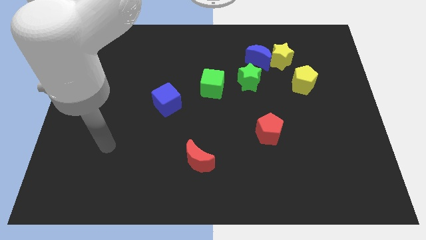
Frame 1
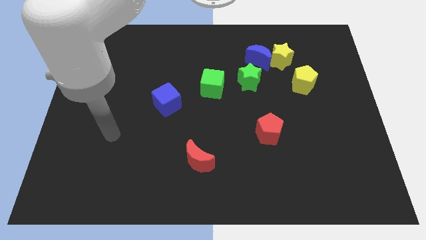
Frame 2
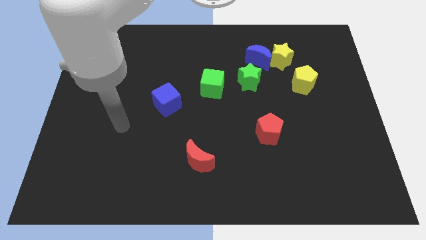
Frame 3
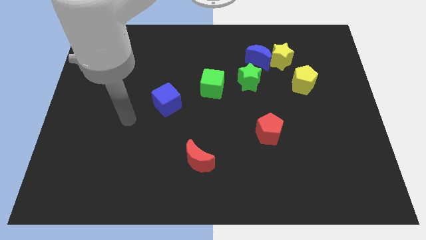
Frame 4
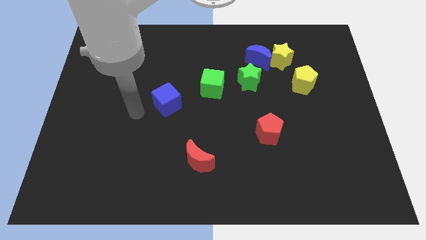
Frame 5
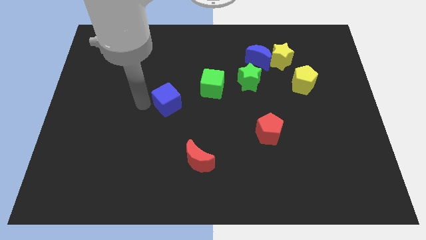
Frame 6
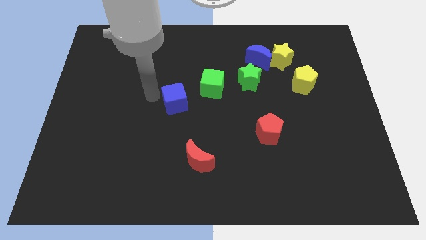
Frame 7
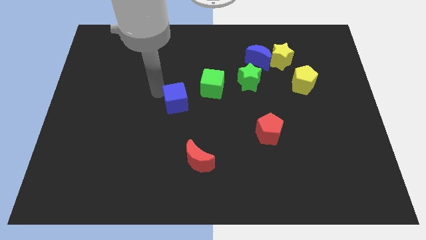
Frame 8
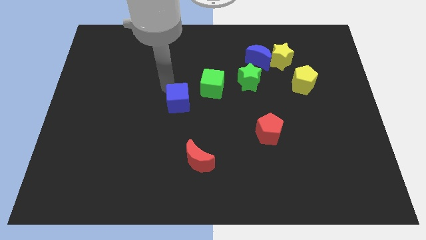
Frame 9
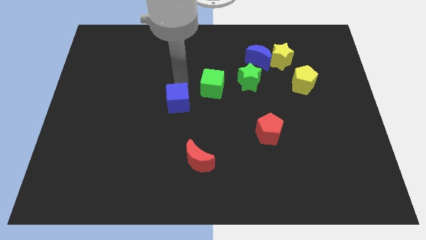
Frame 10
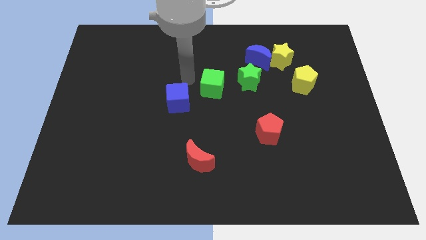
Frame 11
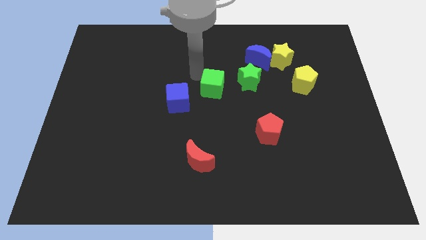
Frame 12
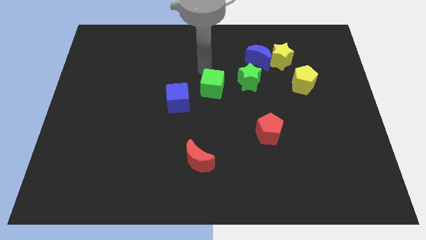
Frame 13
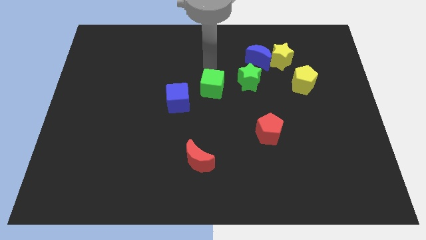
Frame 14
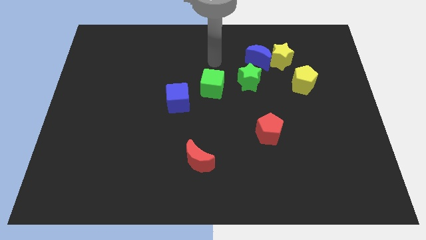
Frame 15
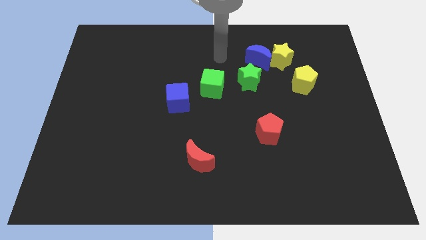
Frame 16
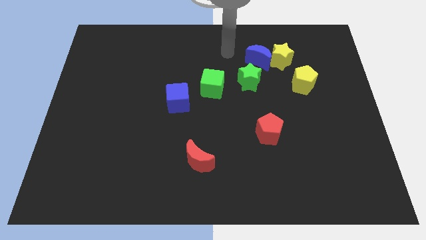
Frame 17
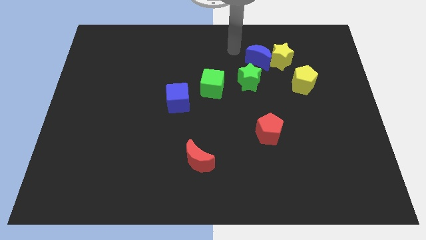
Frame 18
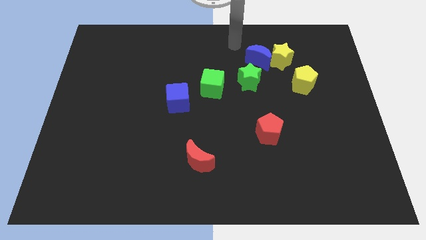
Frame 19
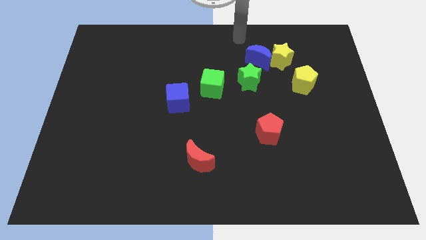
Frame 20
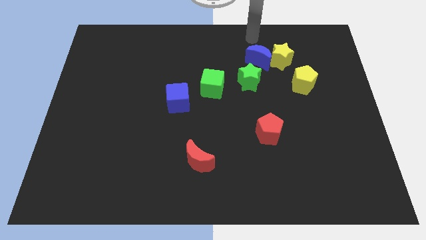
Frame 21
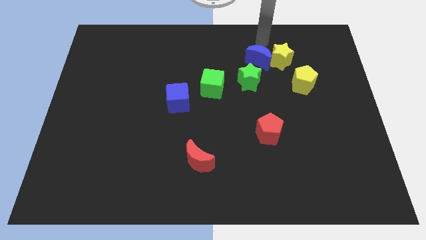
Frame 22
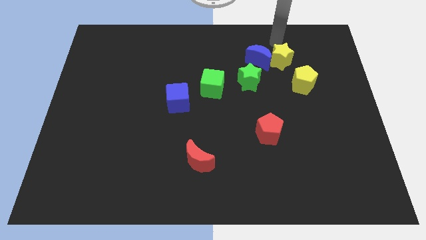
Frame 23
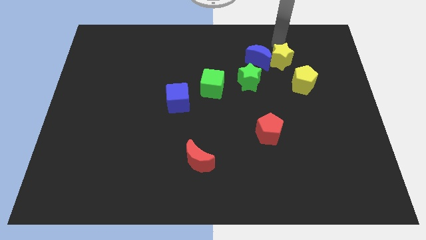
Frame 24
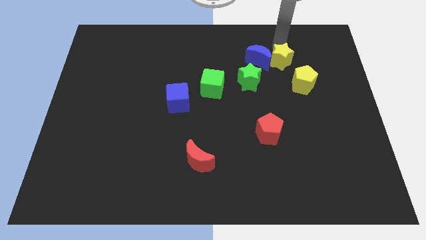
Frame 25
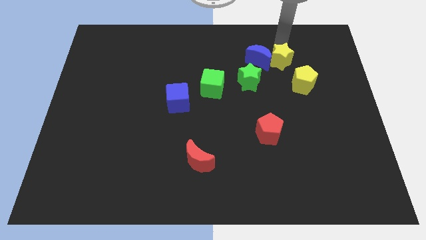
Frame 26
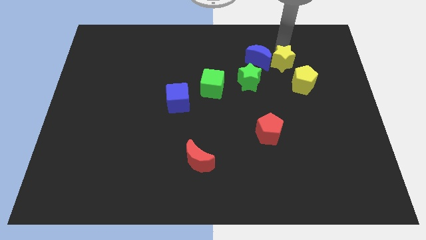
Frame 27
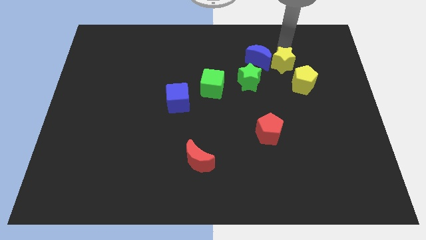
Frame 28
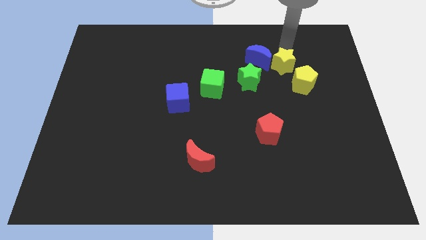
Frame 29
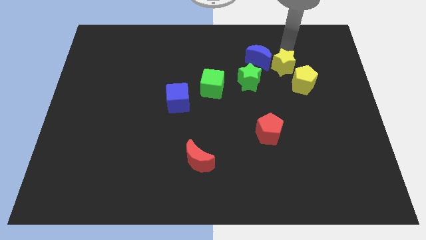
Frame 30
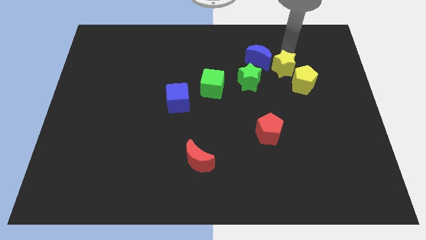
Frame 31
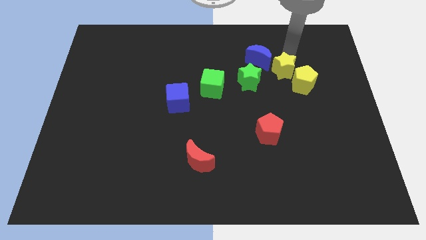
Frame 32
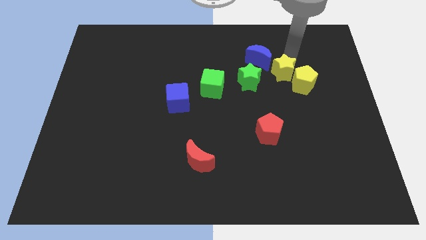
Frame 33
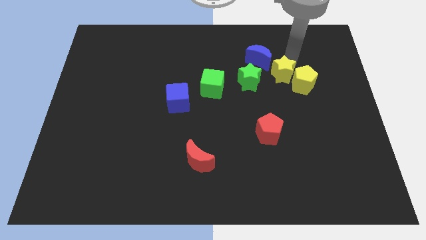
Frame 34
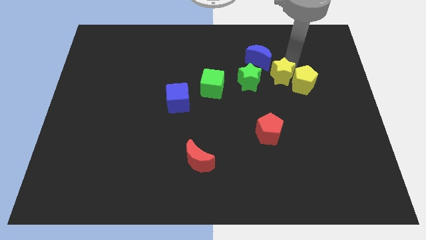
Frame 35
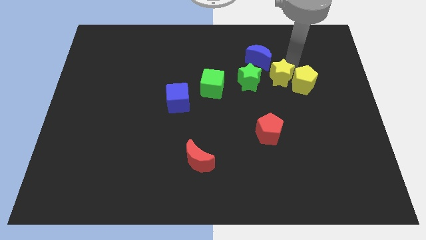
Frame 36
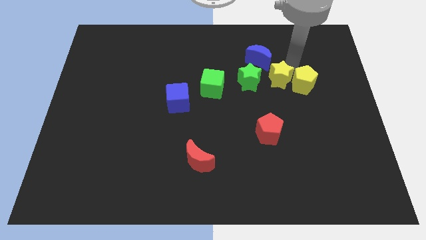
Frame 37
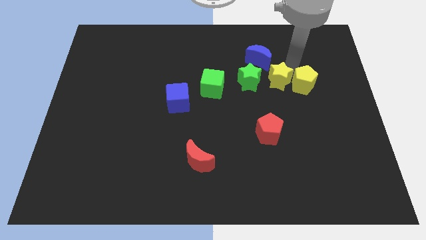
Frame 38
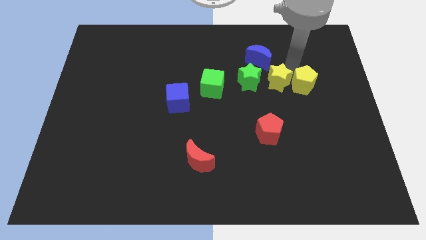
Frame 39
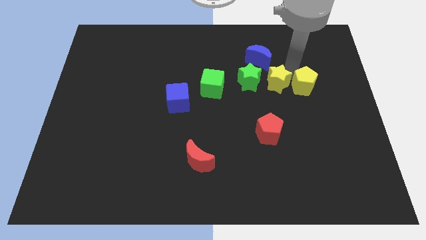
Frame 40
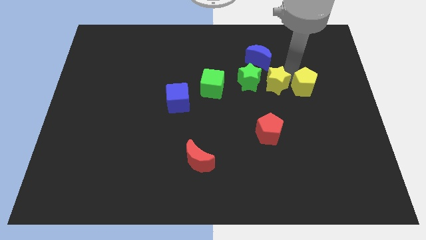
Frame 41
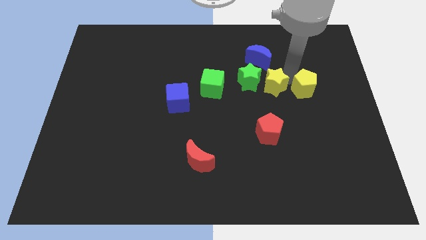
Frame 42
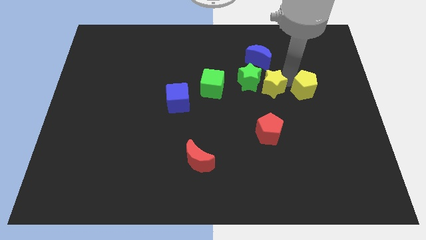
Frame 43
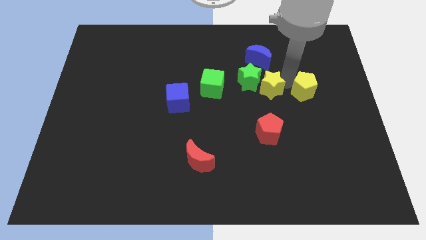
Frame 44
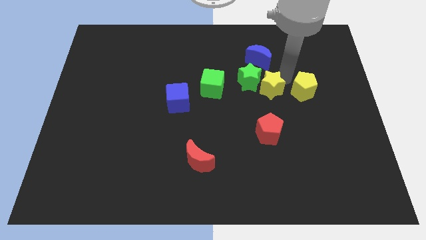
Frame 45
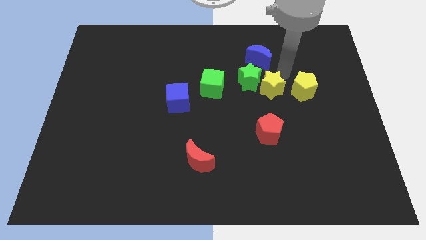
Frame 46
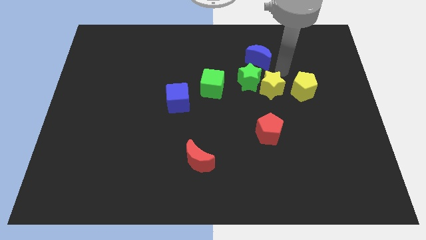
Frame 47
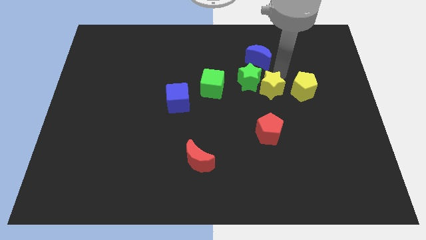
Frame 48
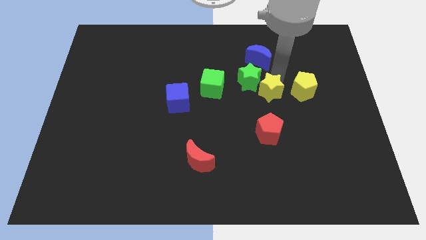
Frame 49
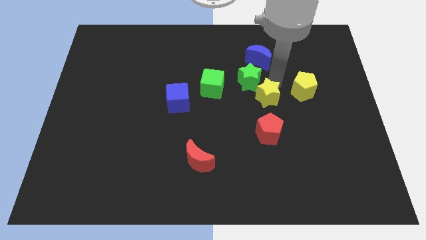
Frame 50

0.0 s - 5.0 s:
put the yellow star to the bottom side of the green star

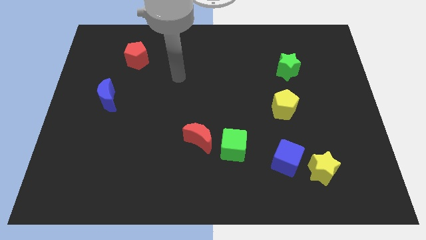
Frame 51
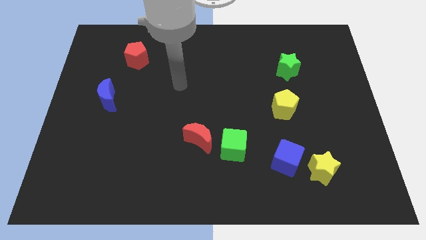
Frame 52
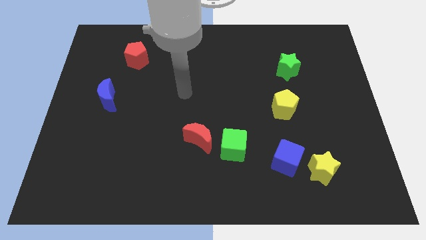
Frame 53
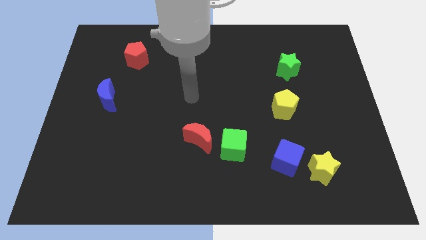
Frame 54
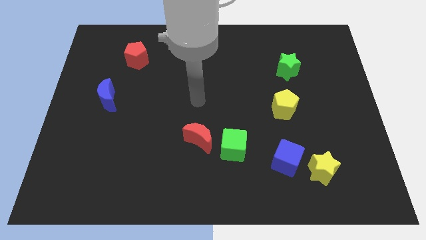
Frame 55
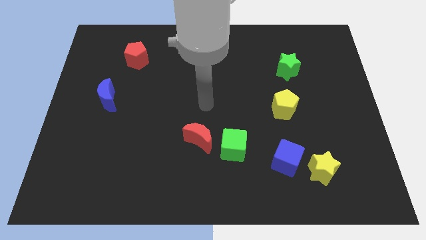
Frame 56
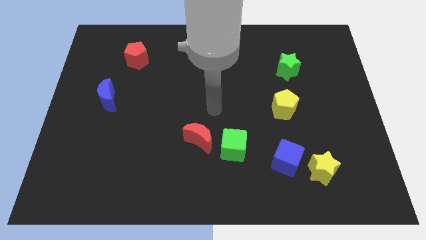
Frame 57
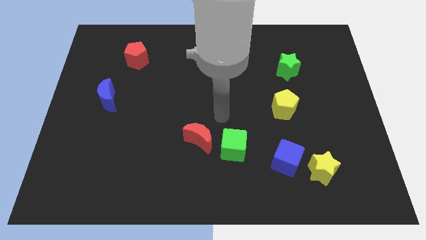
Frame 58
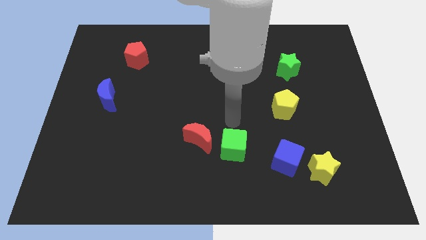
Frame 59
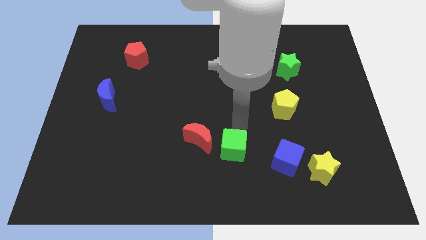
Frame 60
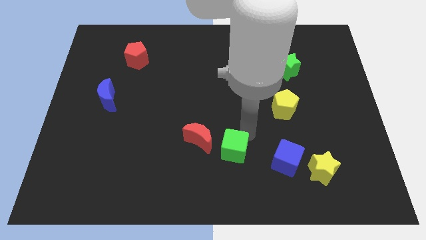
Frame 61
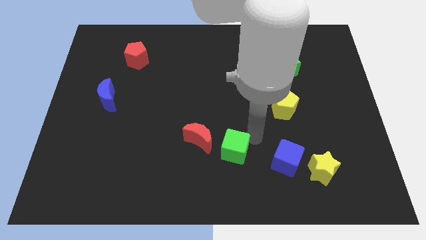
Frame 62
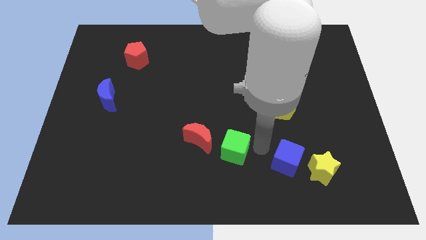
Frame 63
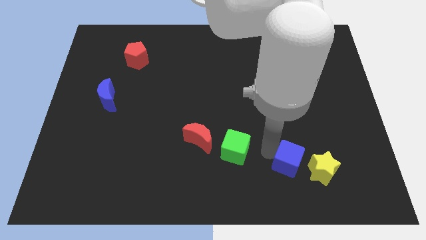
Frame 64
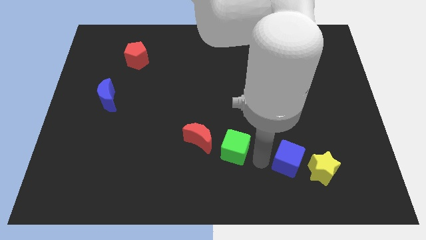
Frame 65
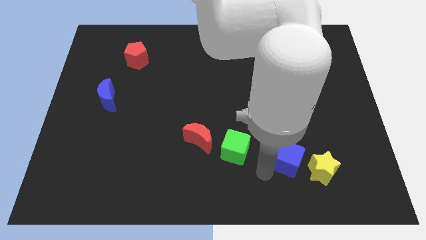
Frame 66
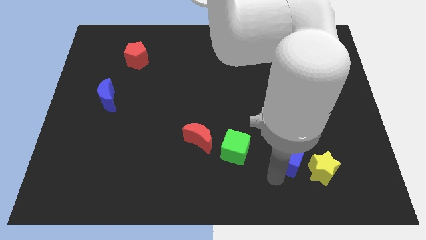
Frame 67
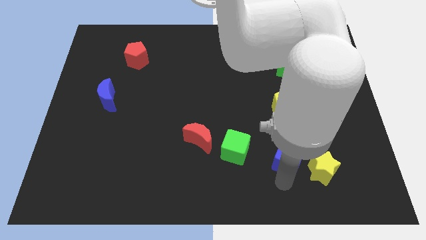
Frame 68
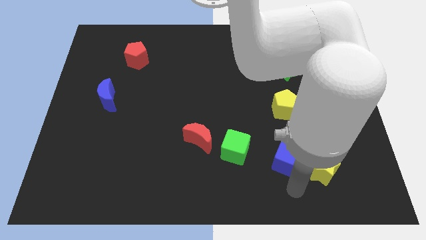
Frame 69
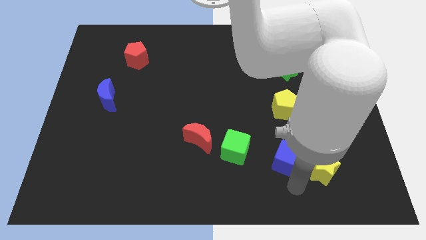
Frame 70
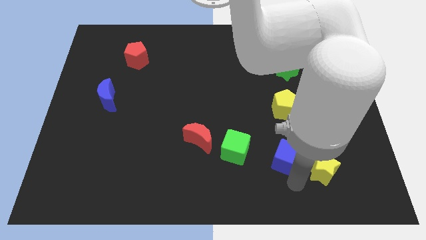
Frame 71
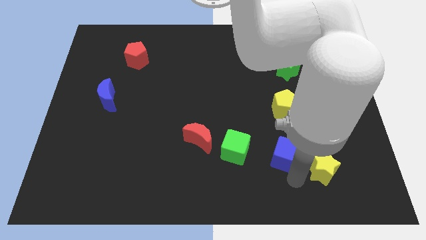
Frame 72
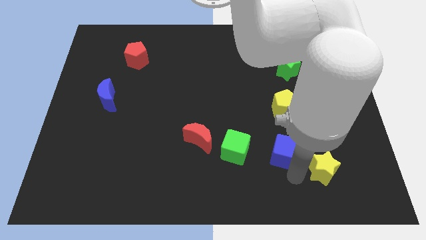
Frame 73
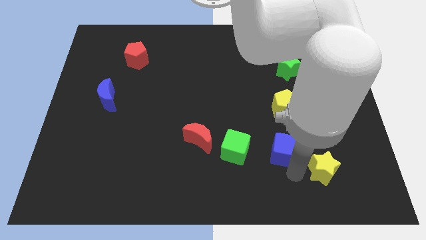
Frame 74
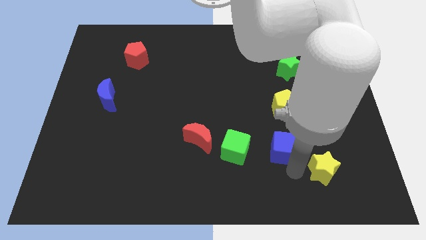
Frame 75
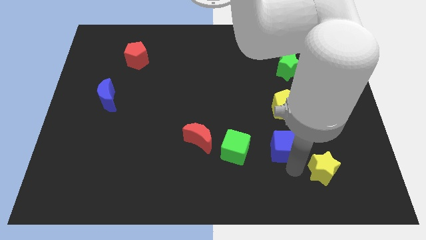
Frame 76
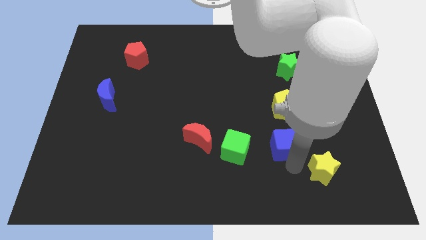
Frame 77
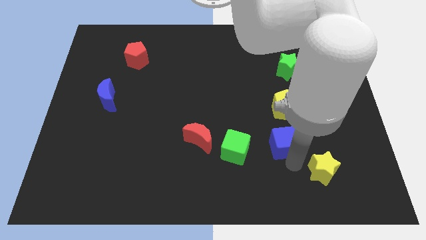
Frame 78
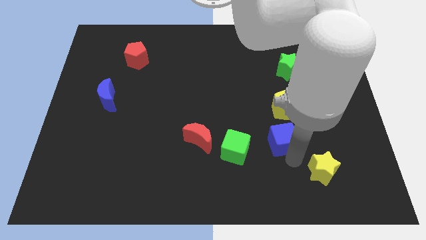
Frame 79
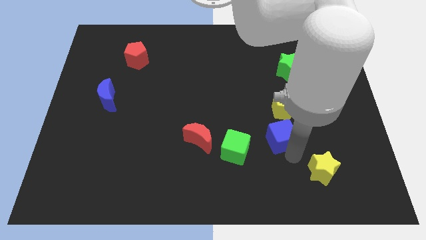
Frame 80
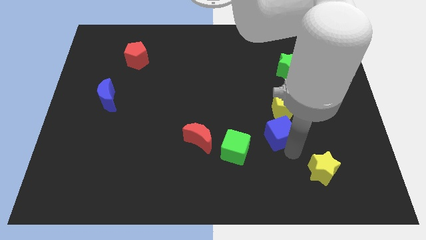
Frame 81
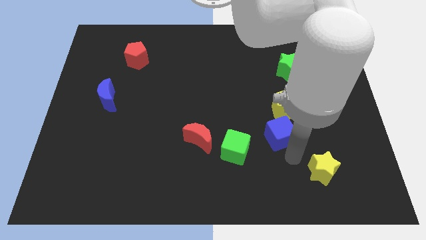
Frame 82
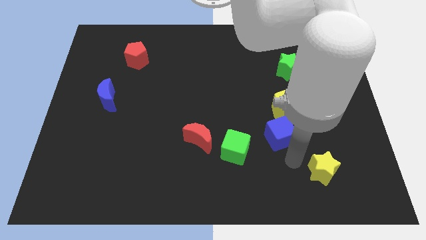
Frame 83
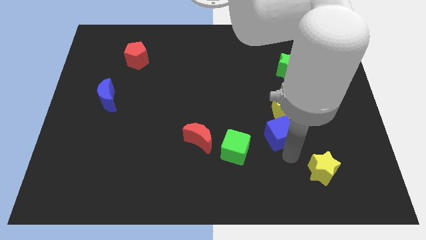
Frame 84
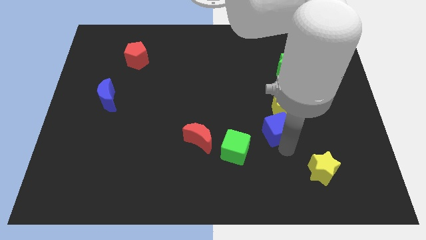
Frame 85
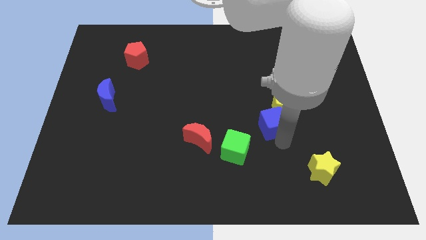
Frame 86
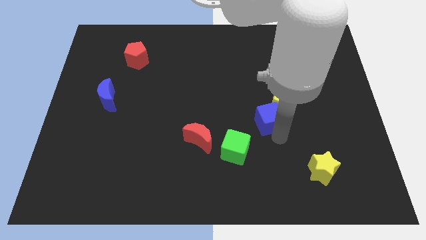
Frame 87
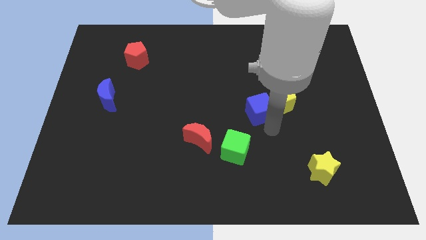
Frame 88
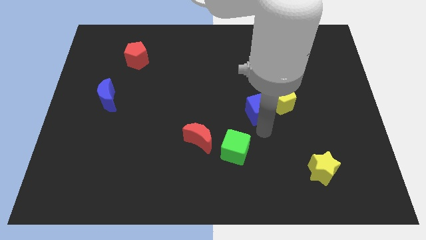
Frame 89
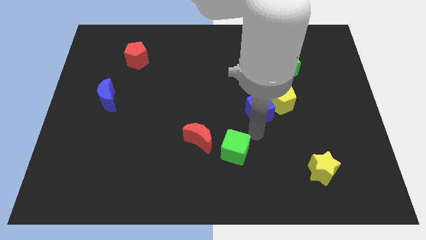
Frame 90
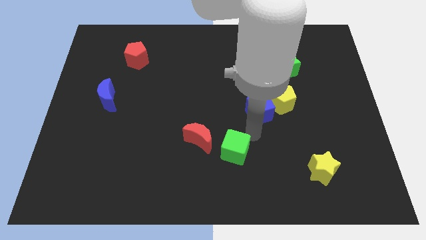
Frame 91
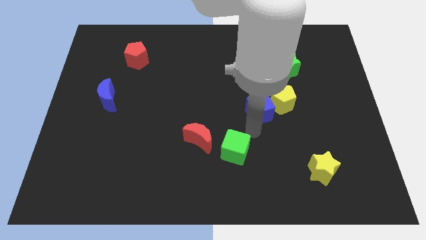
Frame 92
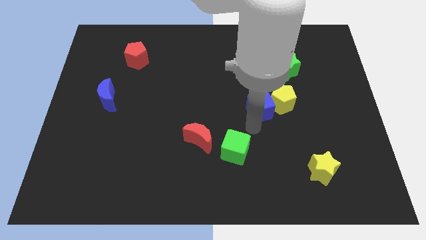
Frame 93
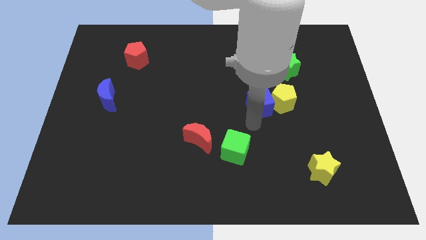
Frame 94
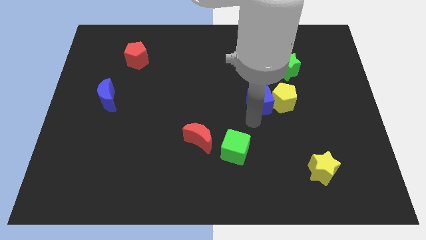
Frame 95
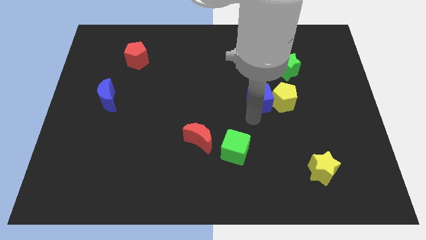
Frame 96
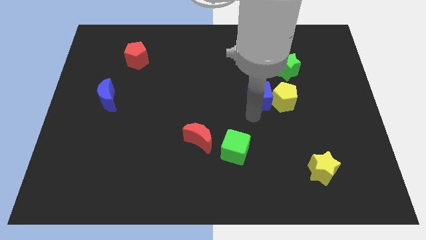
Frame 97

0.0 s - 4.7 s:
move the blue cube to the bottom left side of the green star
